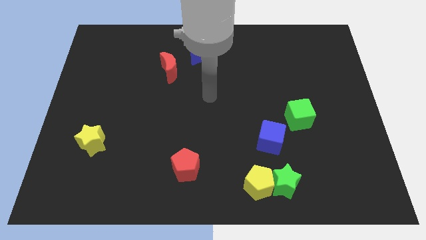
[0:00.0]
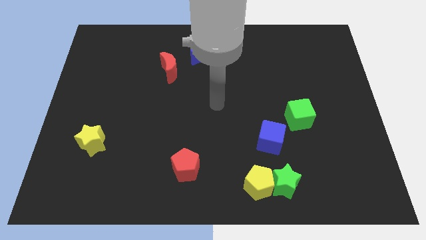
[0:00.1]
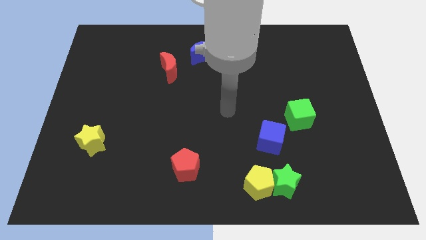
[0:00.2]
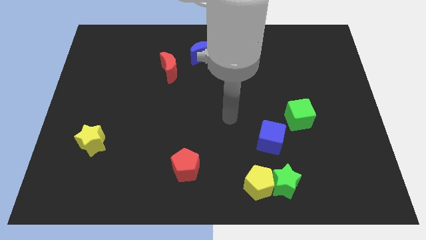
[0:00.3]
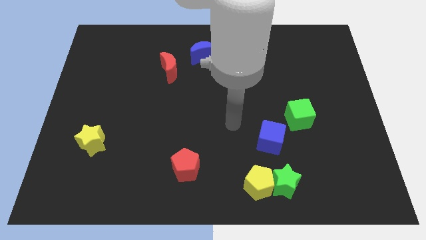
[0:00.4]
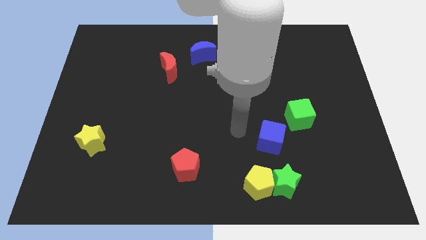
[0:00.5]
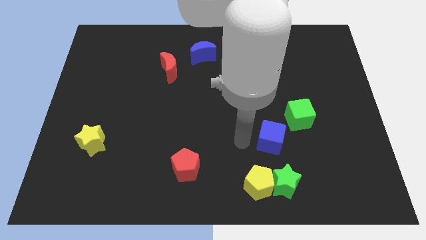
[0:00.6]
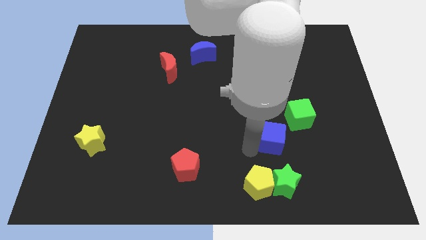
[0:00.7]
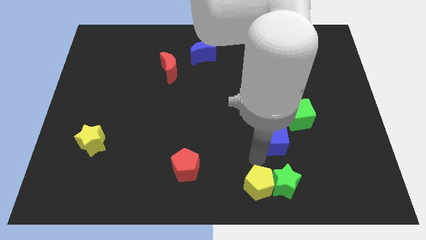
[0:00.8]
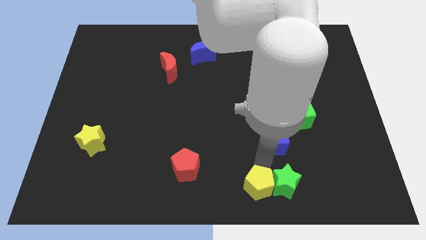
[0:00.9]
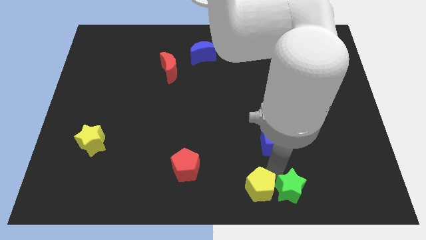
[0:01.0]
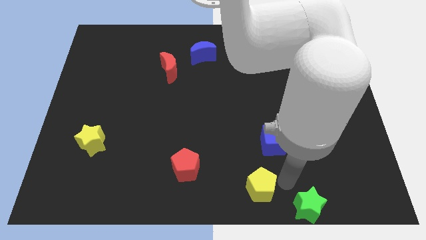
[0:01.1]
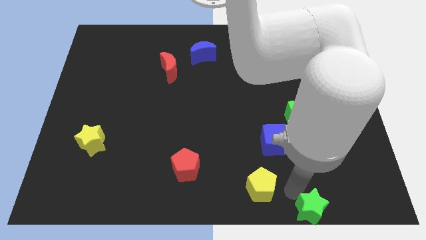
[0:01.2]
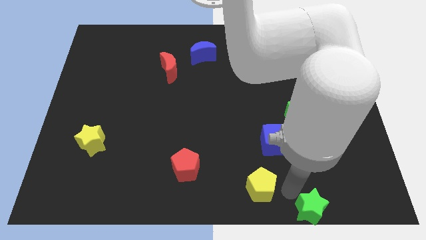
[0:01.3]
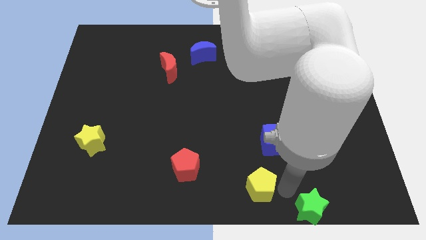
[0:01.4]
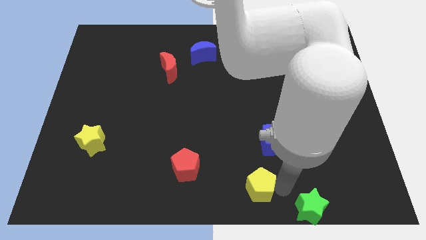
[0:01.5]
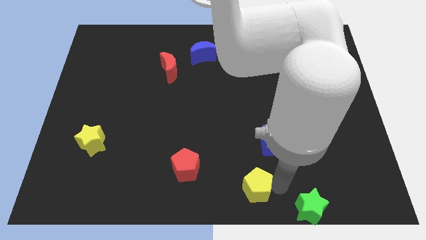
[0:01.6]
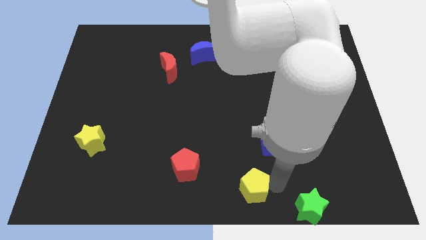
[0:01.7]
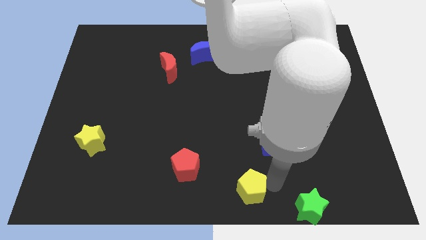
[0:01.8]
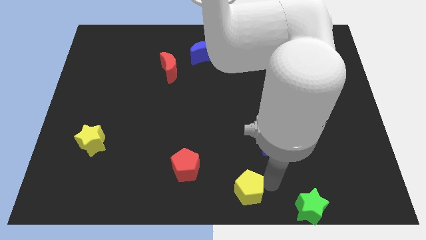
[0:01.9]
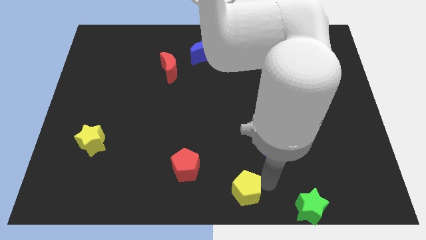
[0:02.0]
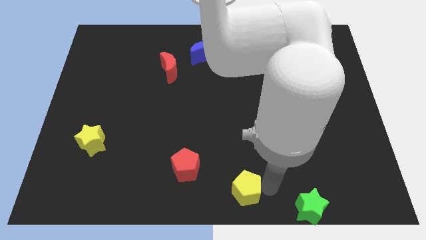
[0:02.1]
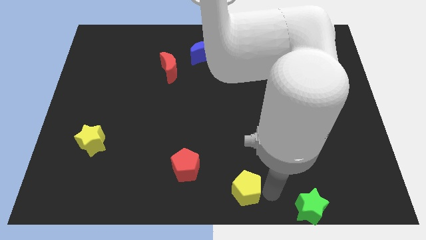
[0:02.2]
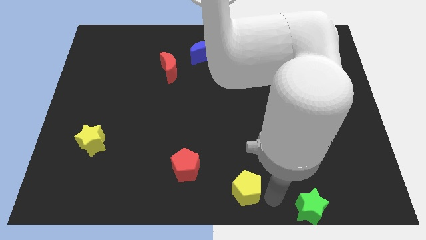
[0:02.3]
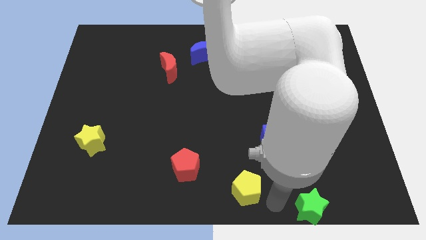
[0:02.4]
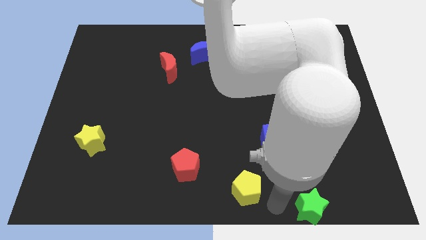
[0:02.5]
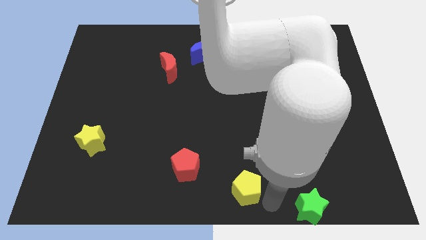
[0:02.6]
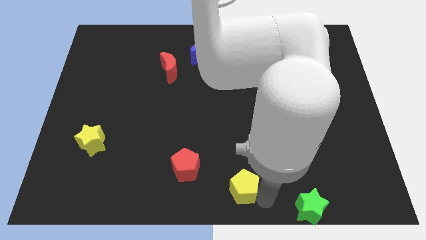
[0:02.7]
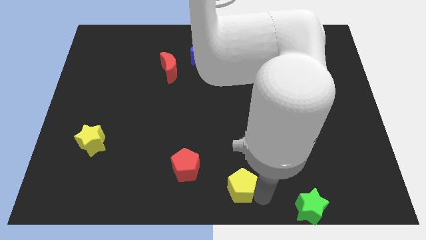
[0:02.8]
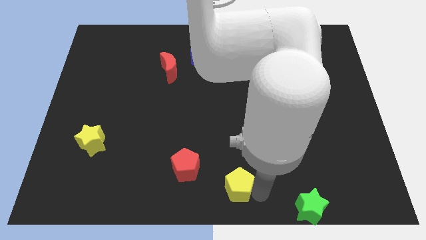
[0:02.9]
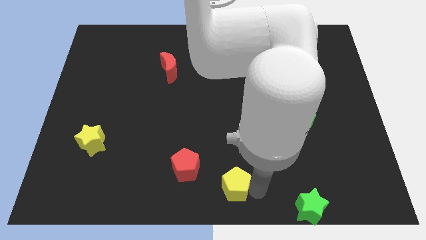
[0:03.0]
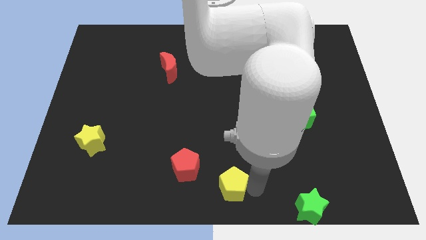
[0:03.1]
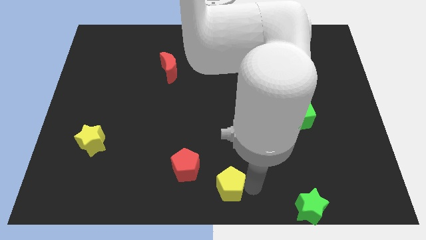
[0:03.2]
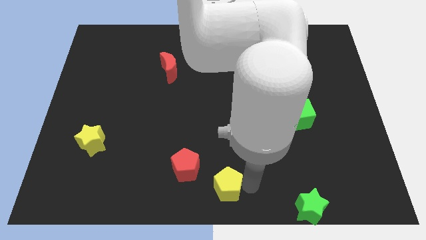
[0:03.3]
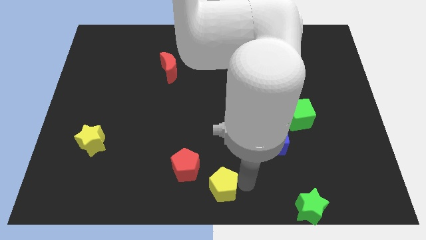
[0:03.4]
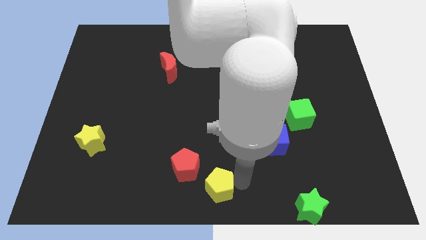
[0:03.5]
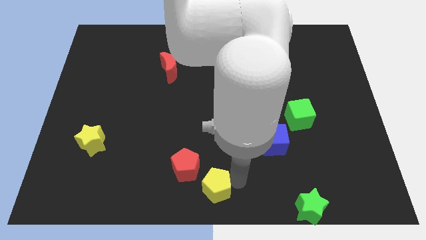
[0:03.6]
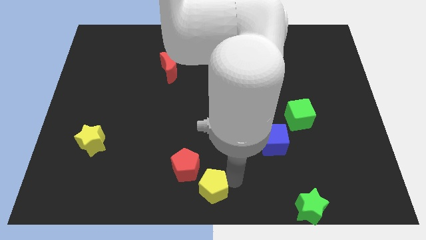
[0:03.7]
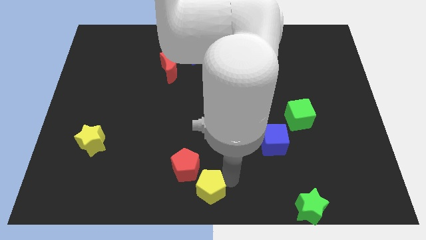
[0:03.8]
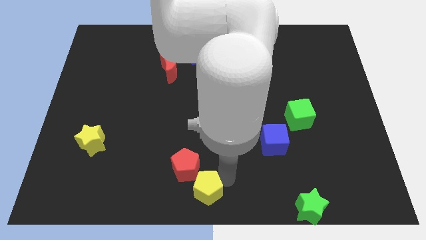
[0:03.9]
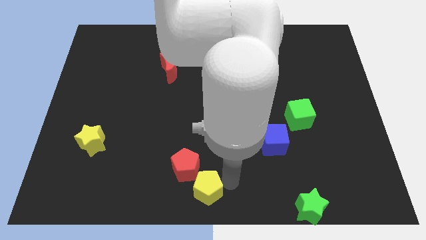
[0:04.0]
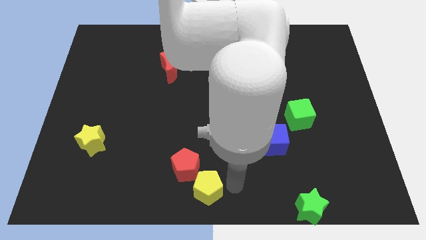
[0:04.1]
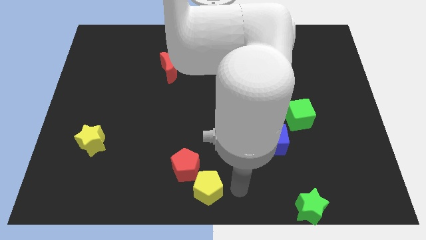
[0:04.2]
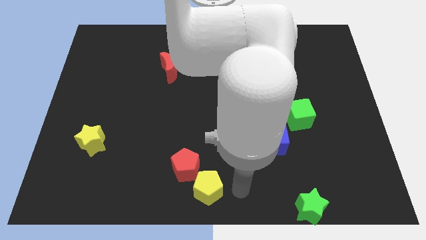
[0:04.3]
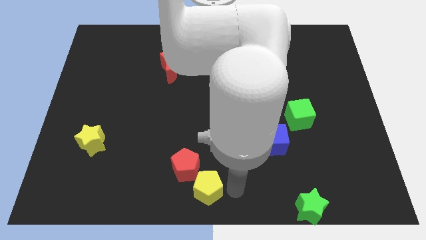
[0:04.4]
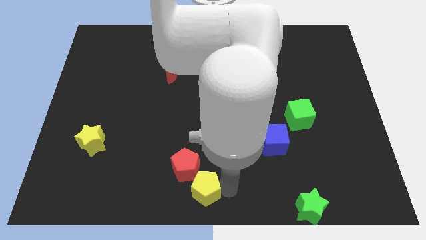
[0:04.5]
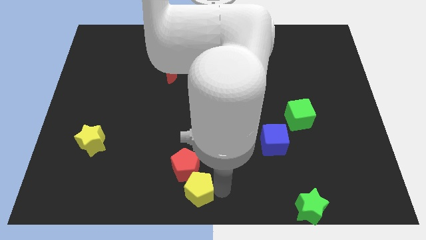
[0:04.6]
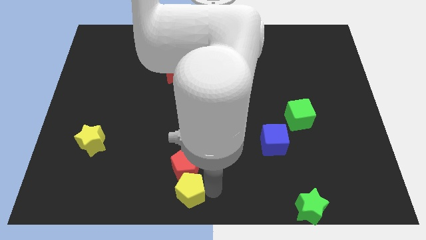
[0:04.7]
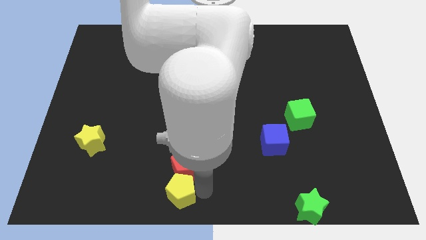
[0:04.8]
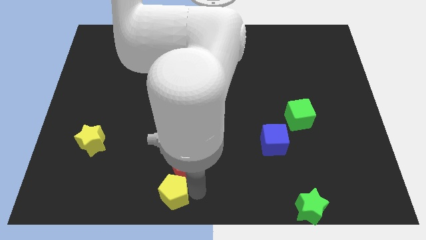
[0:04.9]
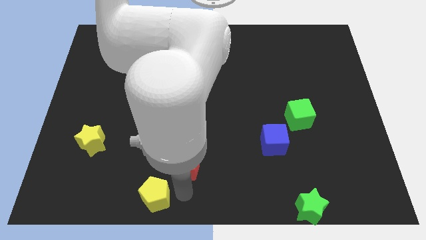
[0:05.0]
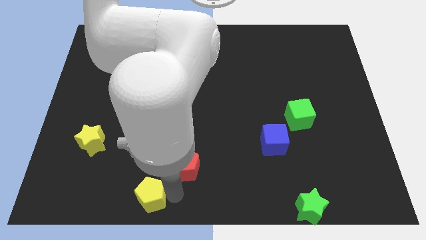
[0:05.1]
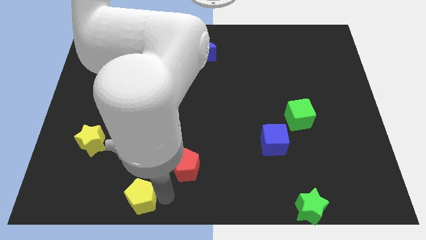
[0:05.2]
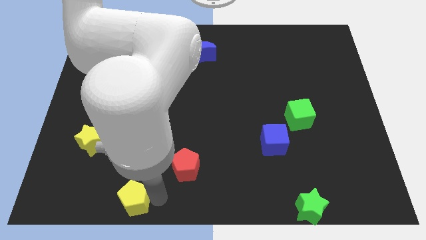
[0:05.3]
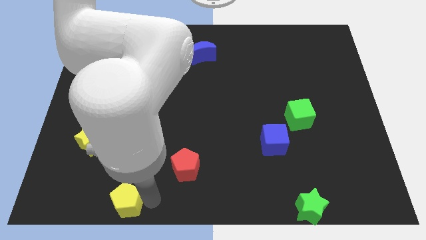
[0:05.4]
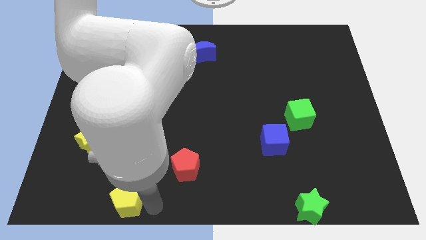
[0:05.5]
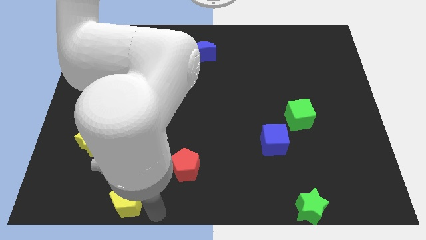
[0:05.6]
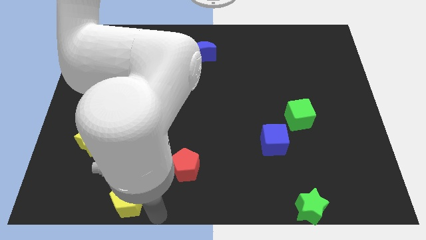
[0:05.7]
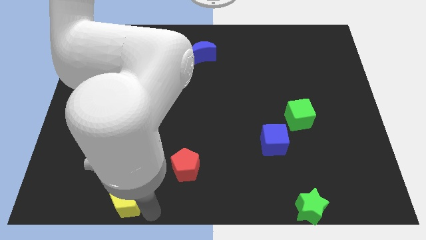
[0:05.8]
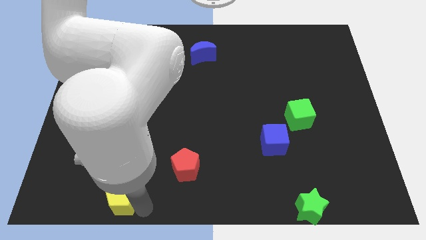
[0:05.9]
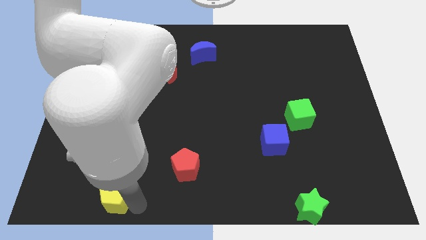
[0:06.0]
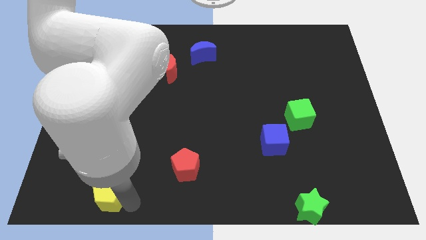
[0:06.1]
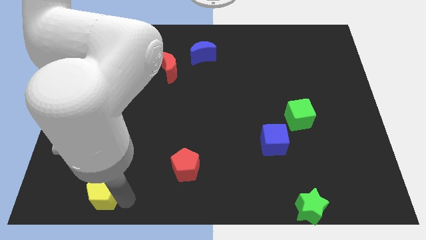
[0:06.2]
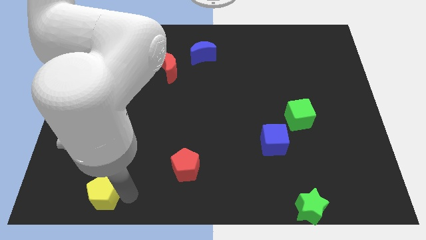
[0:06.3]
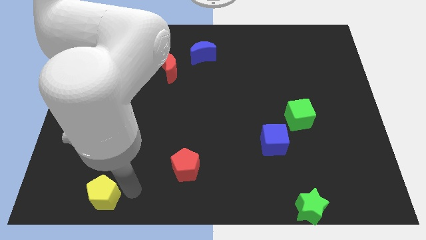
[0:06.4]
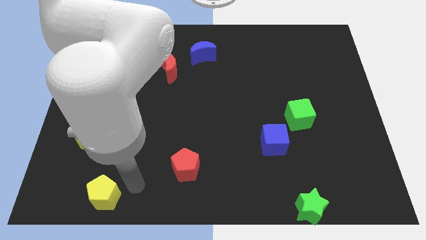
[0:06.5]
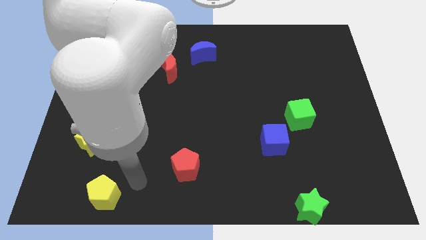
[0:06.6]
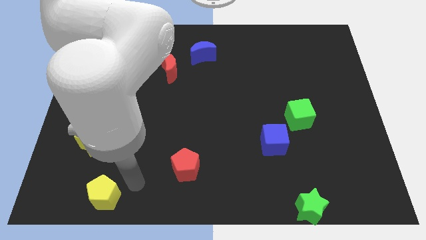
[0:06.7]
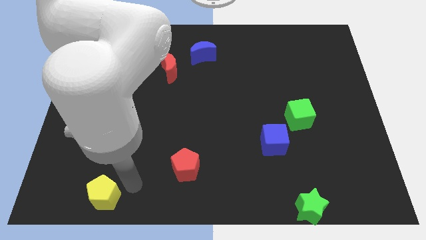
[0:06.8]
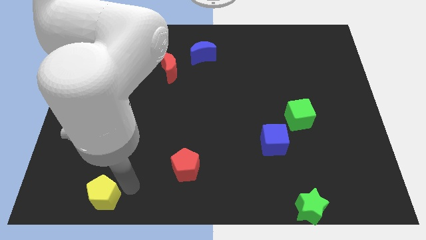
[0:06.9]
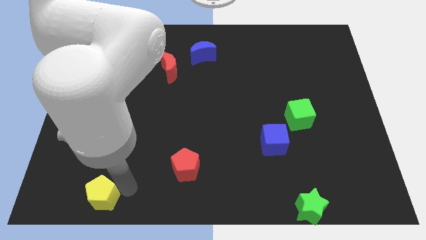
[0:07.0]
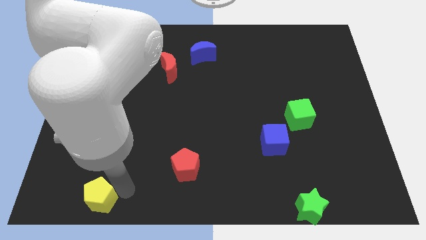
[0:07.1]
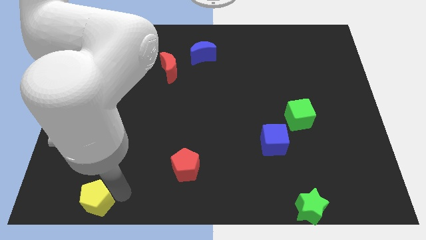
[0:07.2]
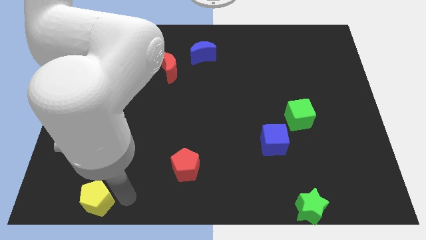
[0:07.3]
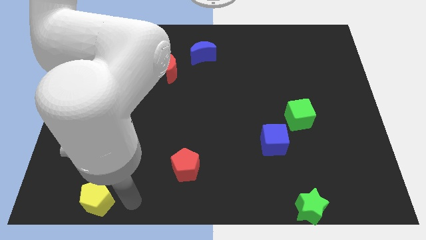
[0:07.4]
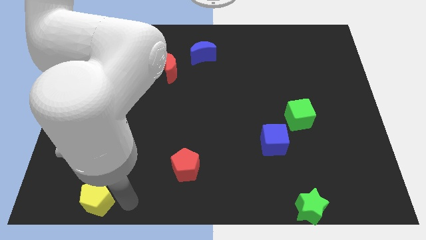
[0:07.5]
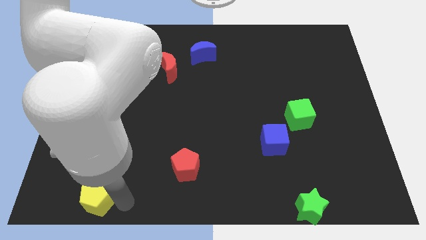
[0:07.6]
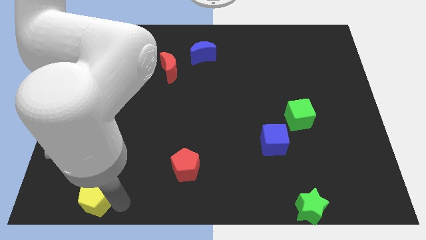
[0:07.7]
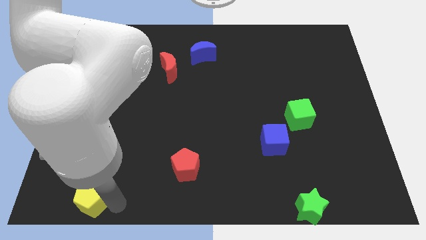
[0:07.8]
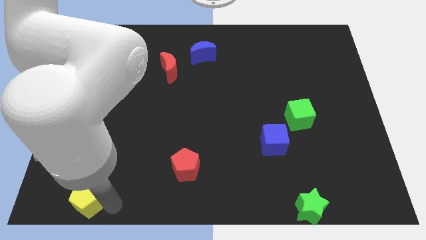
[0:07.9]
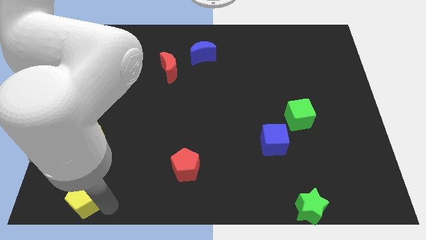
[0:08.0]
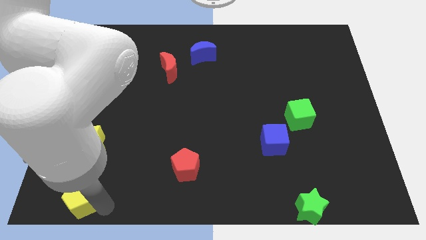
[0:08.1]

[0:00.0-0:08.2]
push the yellow pentagon to the bottom left corner
